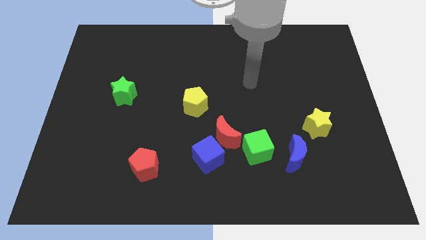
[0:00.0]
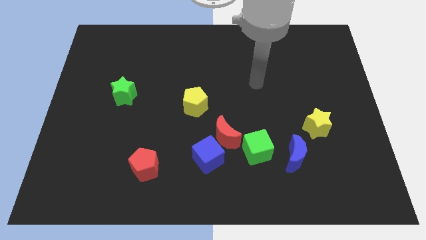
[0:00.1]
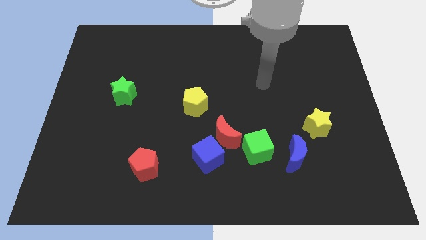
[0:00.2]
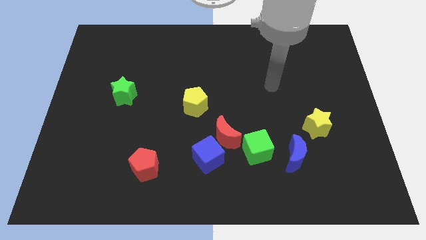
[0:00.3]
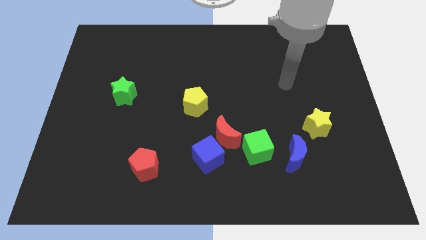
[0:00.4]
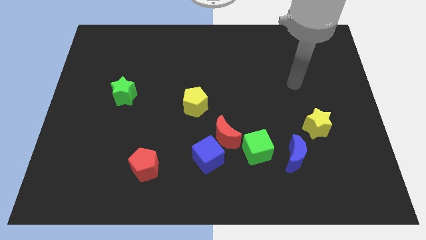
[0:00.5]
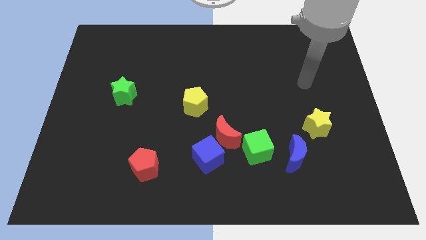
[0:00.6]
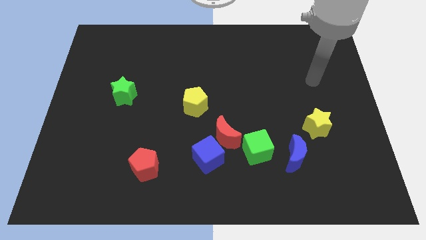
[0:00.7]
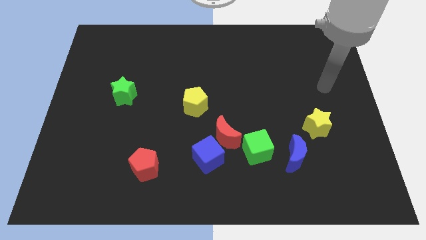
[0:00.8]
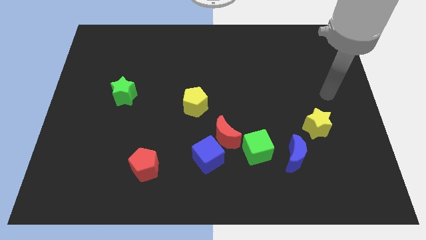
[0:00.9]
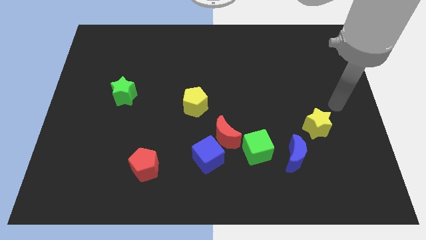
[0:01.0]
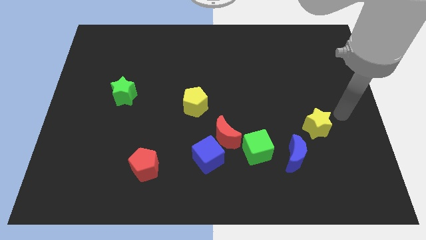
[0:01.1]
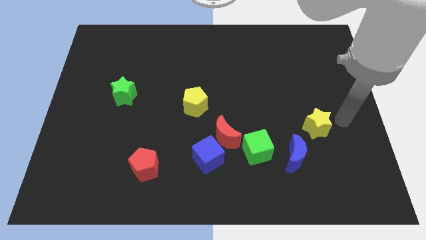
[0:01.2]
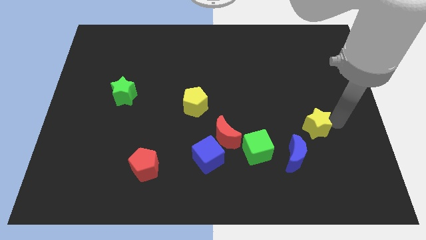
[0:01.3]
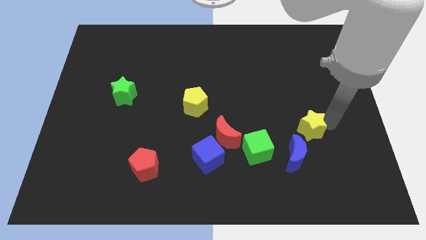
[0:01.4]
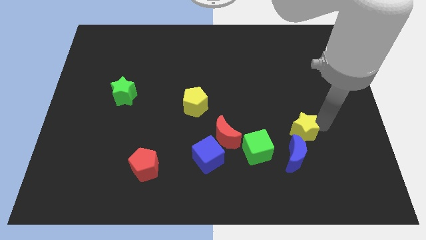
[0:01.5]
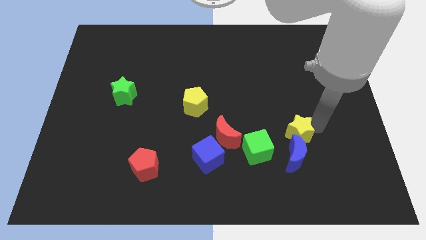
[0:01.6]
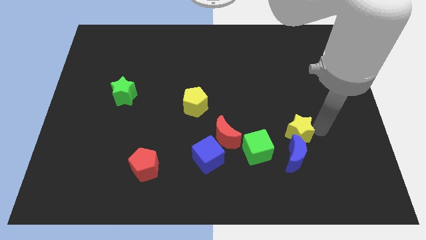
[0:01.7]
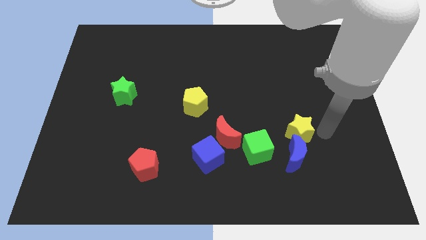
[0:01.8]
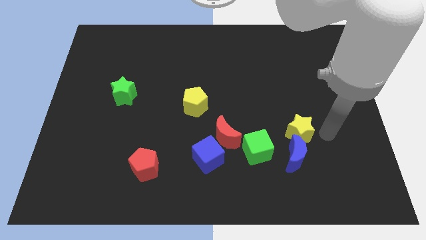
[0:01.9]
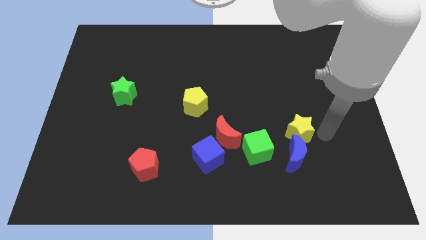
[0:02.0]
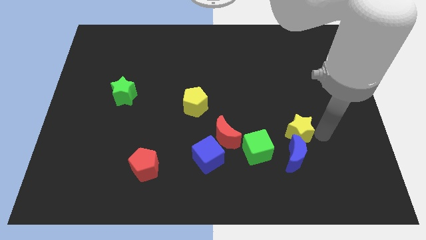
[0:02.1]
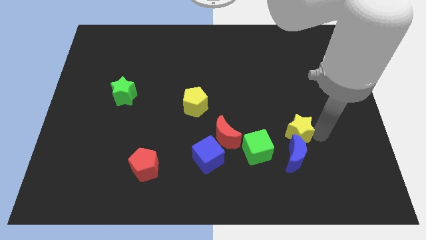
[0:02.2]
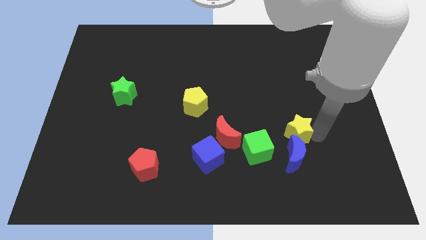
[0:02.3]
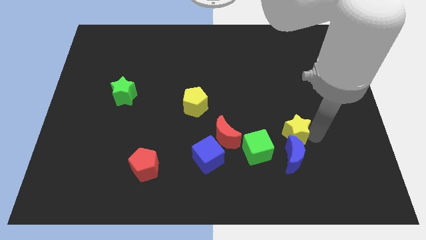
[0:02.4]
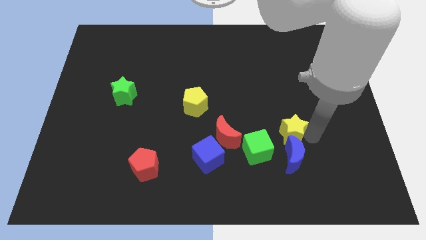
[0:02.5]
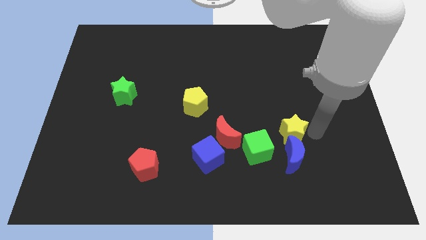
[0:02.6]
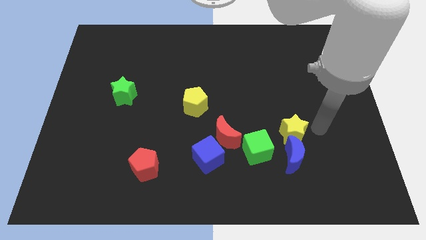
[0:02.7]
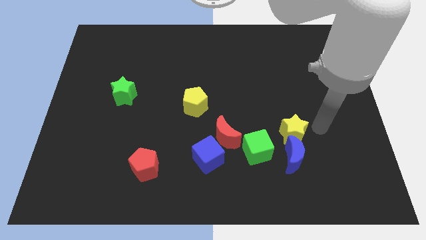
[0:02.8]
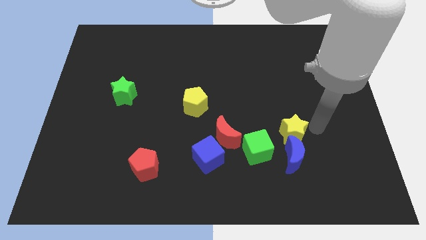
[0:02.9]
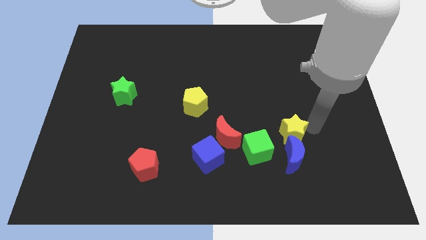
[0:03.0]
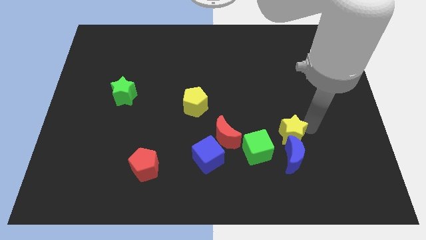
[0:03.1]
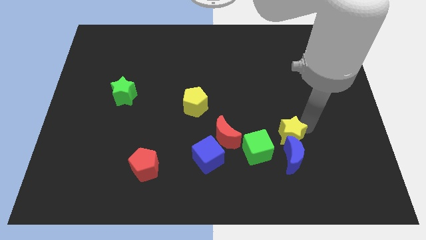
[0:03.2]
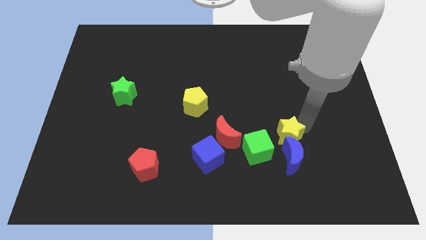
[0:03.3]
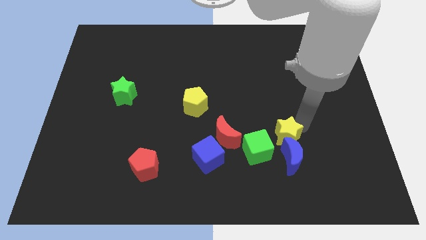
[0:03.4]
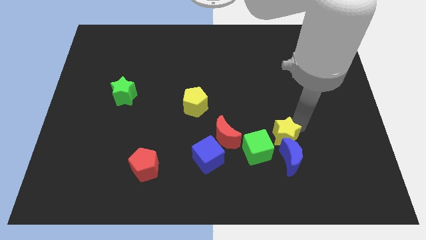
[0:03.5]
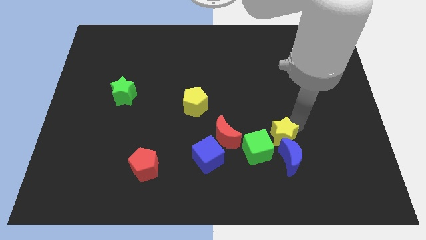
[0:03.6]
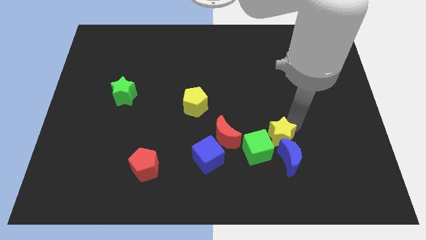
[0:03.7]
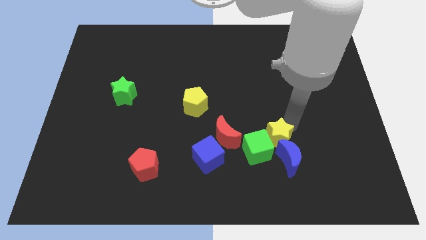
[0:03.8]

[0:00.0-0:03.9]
push the yellow star close to the green cube

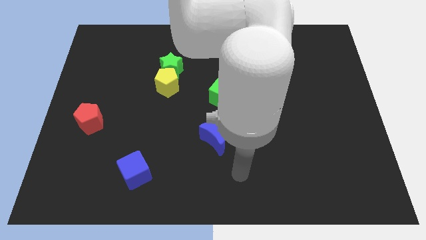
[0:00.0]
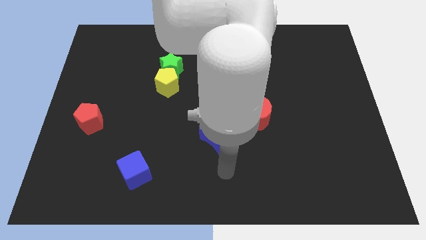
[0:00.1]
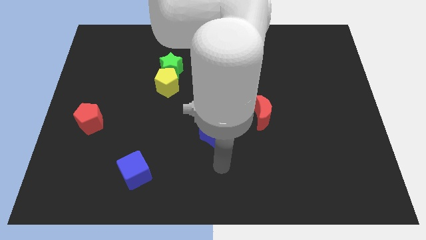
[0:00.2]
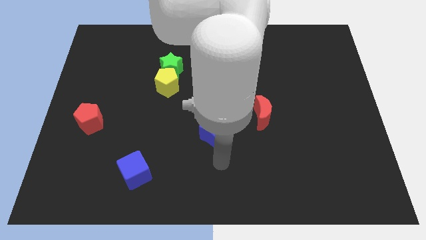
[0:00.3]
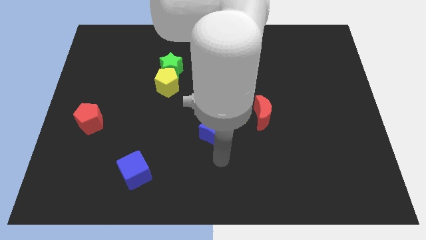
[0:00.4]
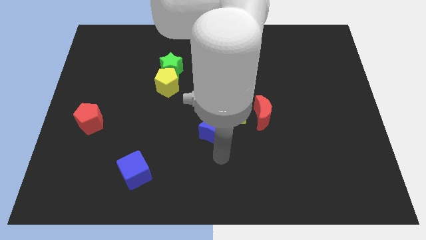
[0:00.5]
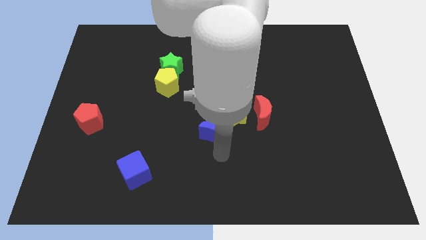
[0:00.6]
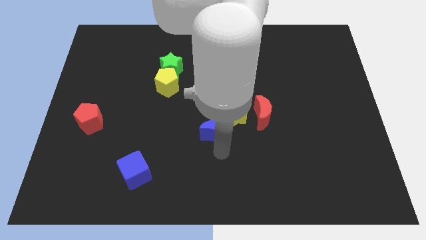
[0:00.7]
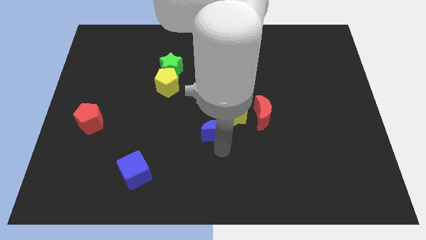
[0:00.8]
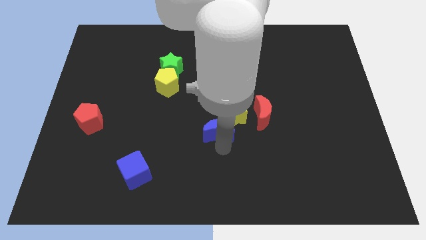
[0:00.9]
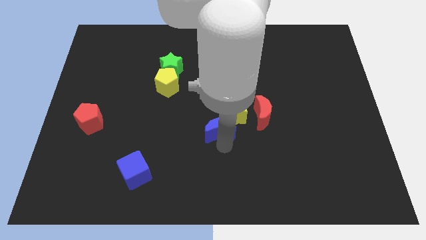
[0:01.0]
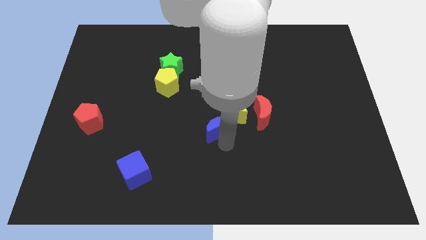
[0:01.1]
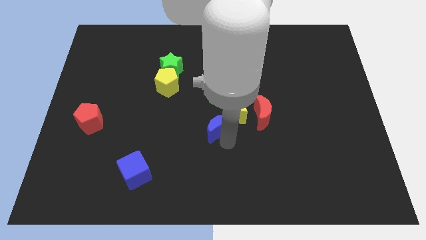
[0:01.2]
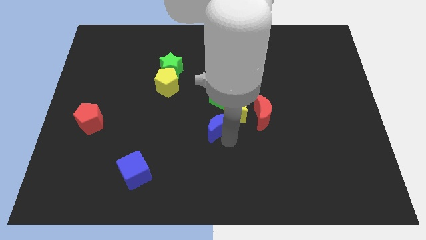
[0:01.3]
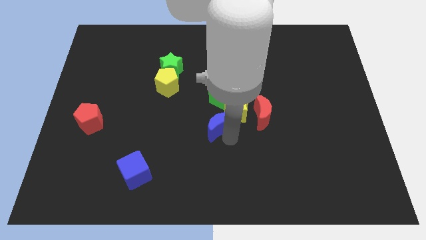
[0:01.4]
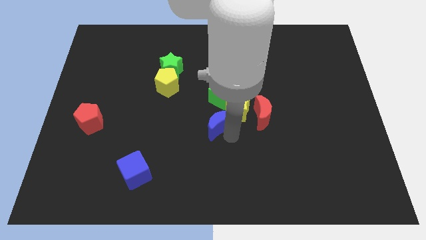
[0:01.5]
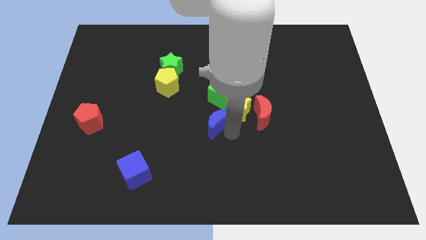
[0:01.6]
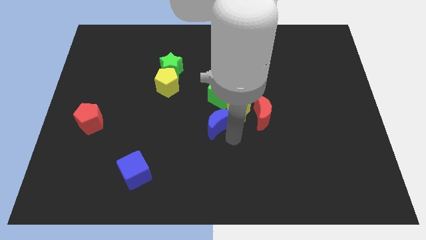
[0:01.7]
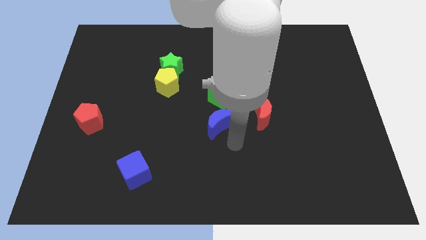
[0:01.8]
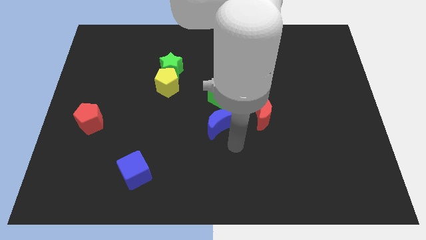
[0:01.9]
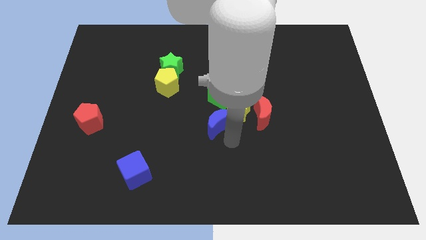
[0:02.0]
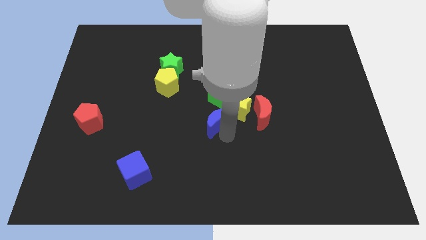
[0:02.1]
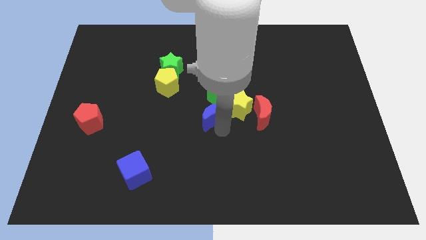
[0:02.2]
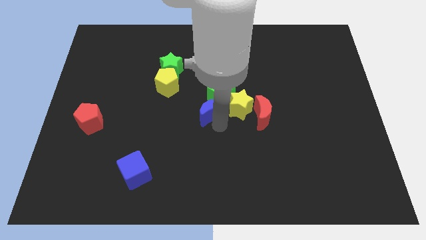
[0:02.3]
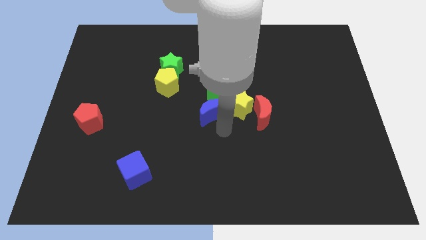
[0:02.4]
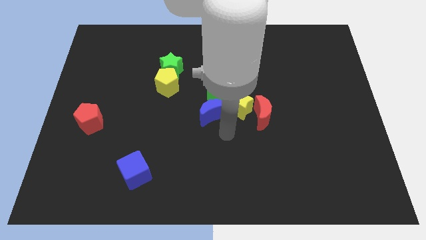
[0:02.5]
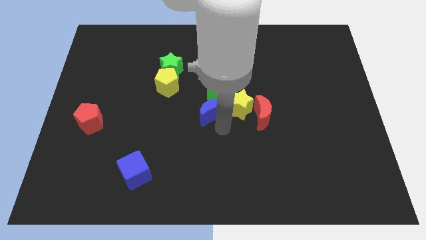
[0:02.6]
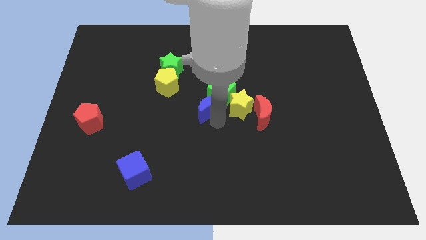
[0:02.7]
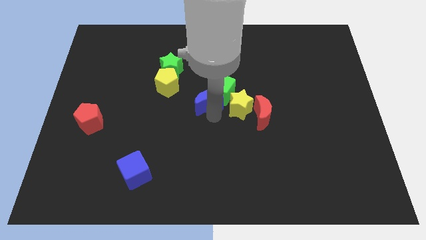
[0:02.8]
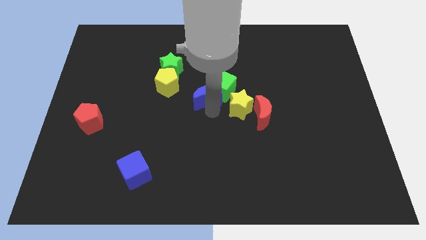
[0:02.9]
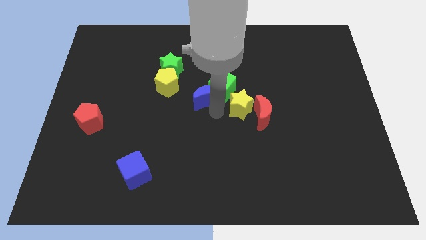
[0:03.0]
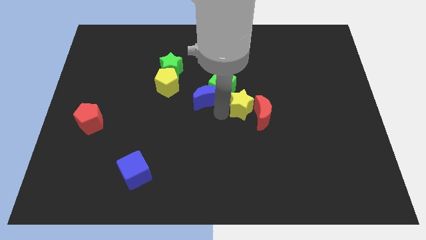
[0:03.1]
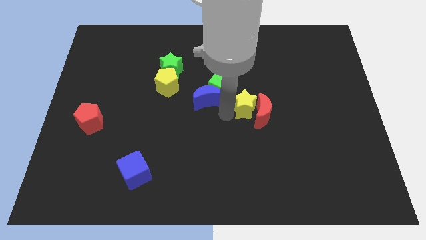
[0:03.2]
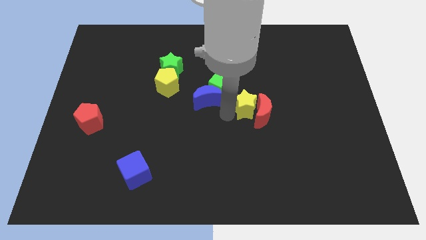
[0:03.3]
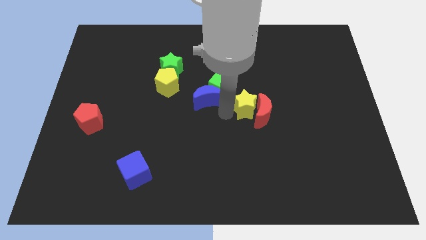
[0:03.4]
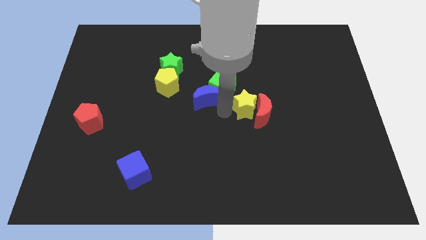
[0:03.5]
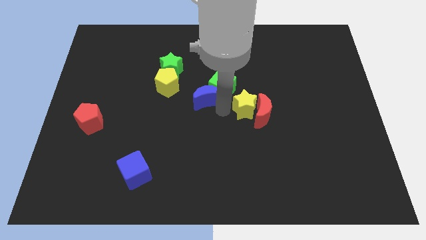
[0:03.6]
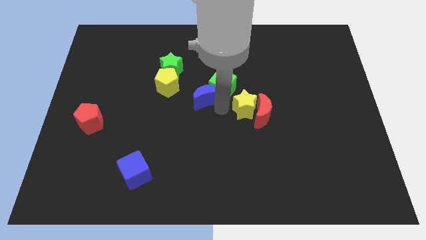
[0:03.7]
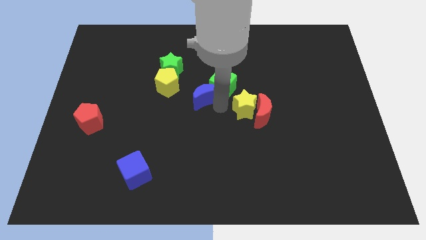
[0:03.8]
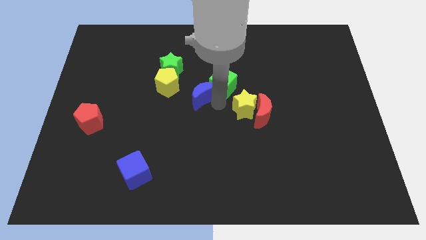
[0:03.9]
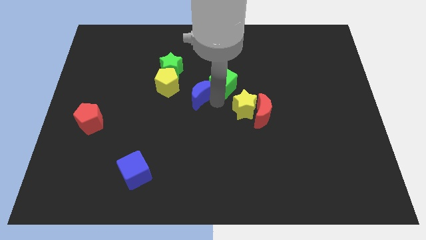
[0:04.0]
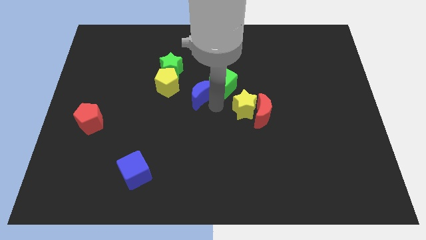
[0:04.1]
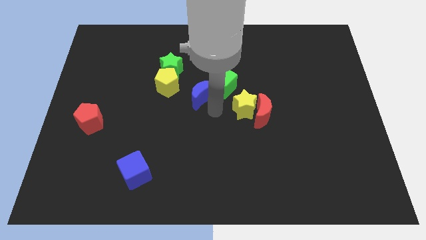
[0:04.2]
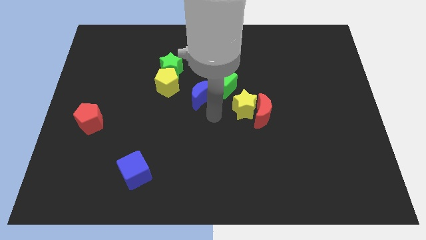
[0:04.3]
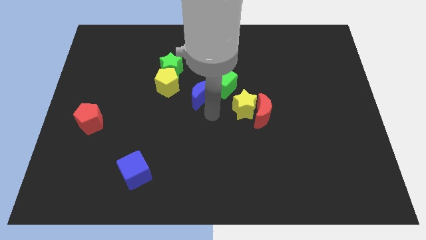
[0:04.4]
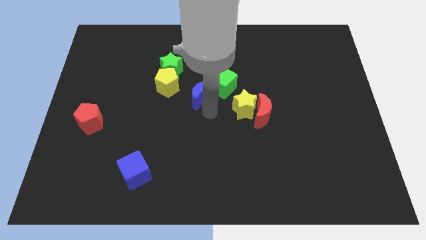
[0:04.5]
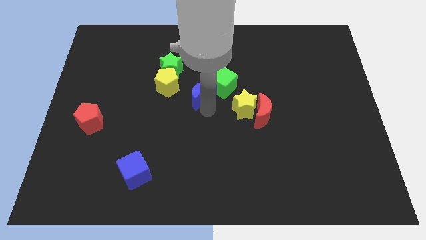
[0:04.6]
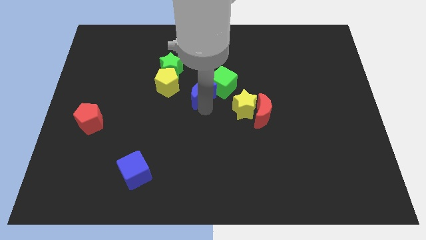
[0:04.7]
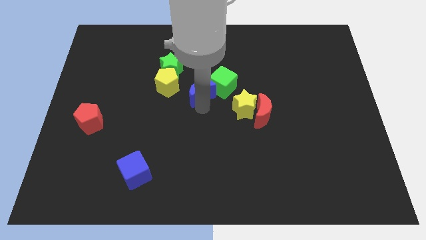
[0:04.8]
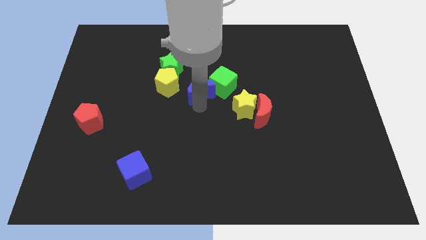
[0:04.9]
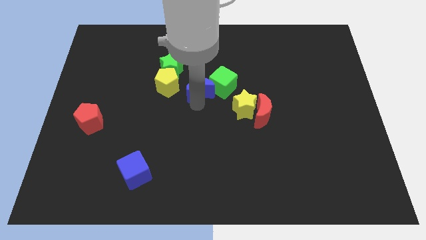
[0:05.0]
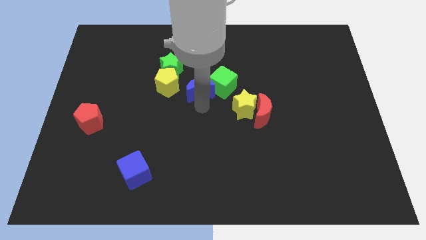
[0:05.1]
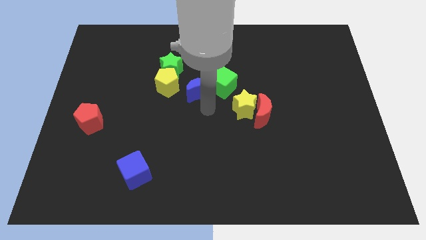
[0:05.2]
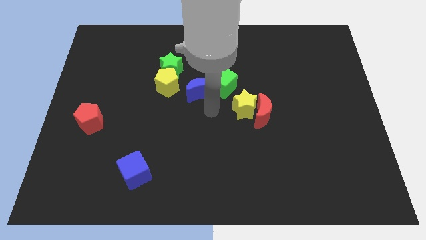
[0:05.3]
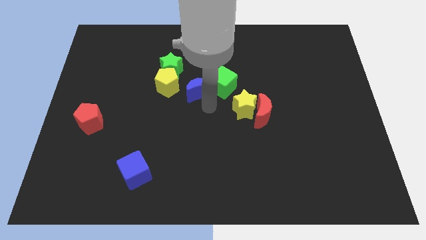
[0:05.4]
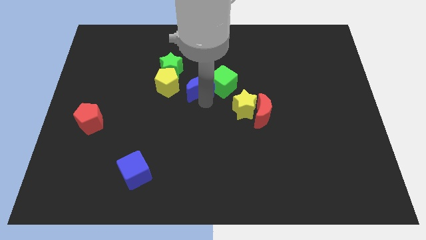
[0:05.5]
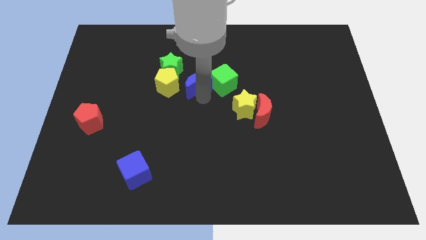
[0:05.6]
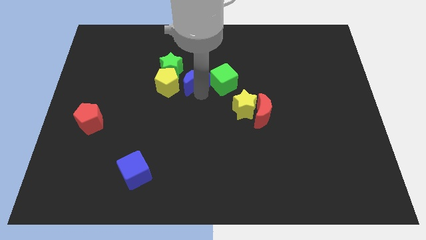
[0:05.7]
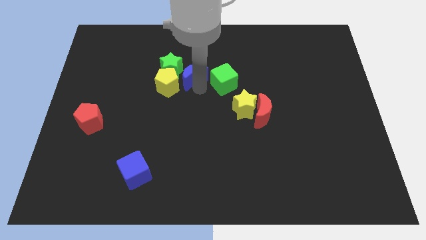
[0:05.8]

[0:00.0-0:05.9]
push the blue moon next to the green star
